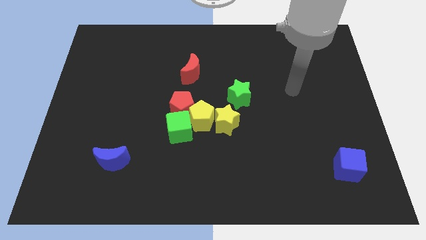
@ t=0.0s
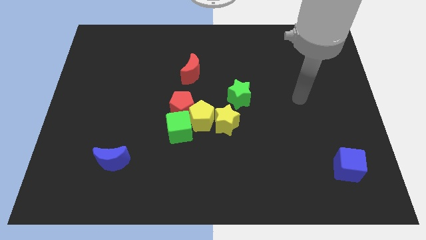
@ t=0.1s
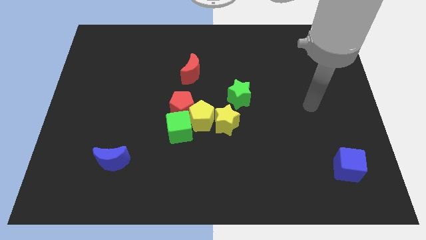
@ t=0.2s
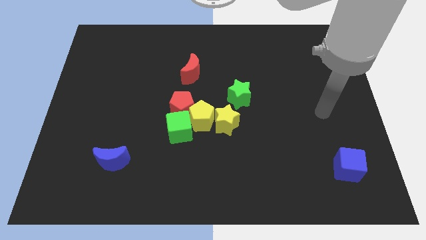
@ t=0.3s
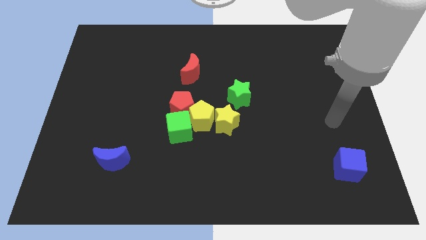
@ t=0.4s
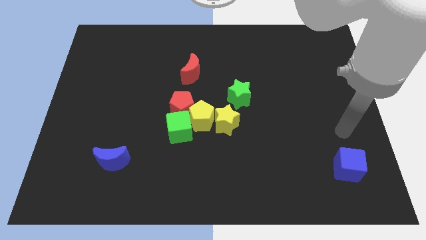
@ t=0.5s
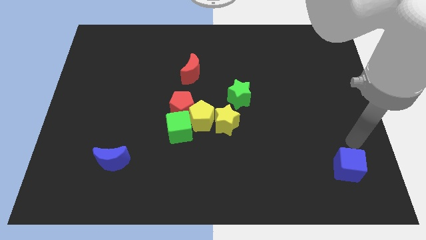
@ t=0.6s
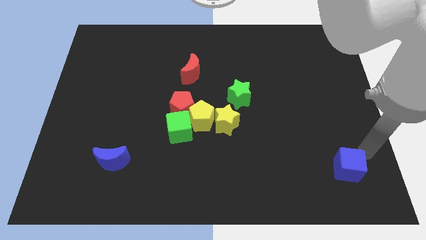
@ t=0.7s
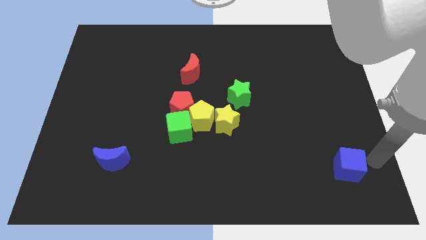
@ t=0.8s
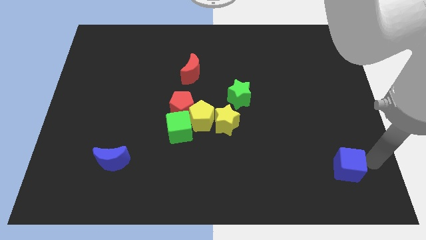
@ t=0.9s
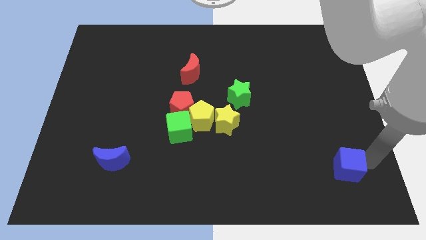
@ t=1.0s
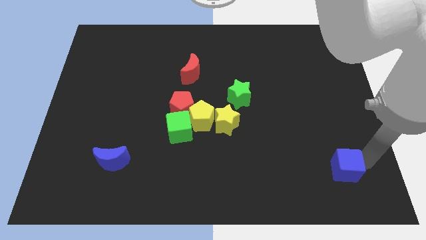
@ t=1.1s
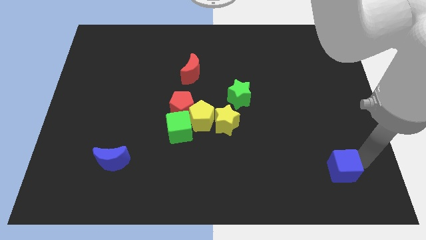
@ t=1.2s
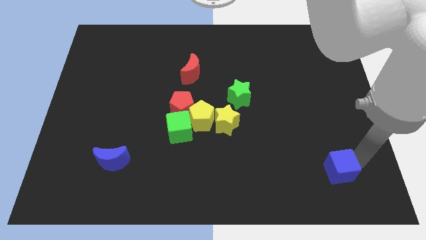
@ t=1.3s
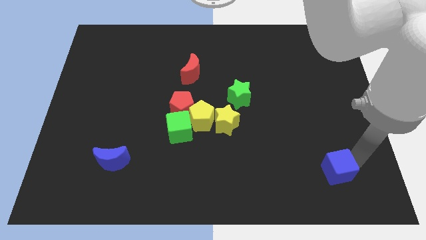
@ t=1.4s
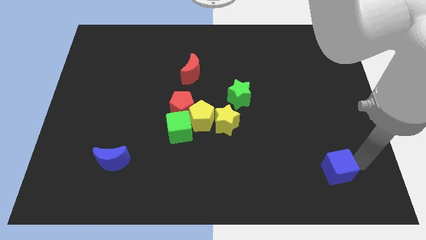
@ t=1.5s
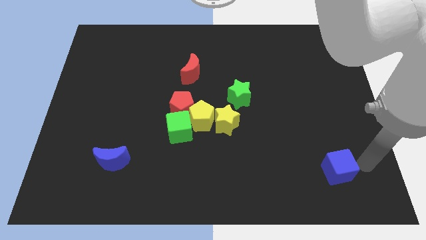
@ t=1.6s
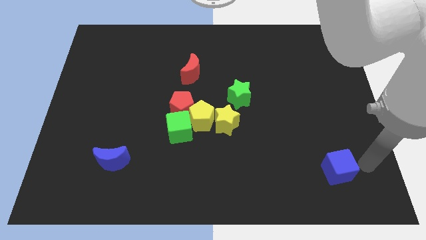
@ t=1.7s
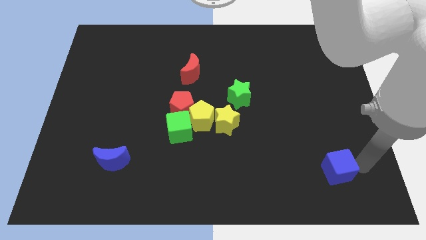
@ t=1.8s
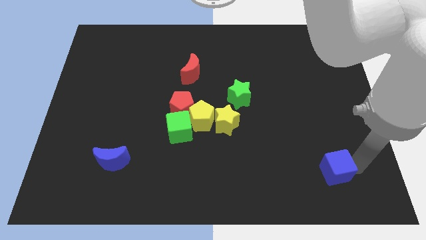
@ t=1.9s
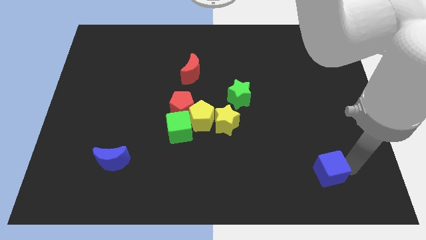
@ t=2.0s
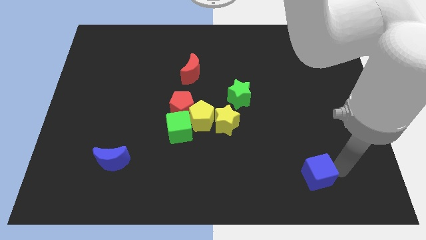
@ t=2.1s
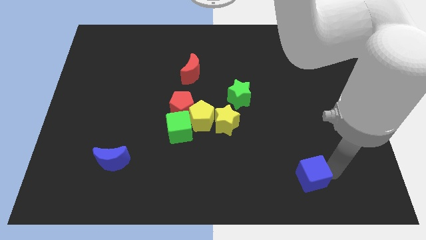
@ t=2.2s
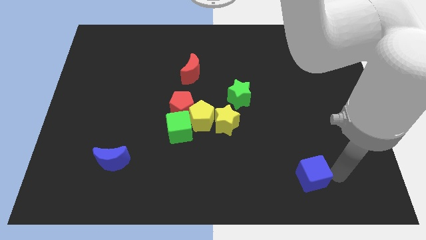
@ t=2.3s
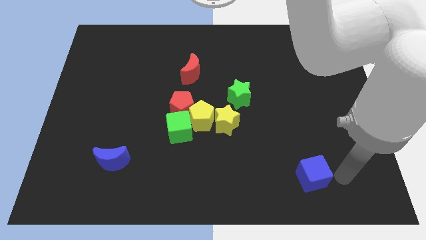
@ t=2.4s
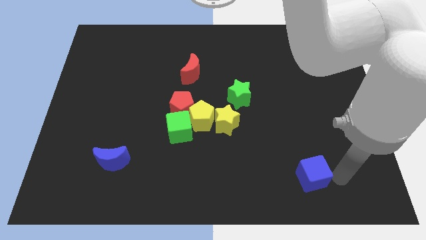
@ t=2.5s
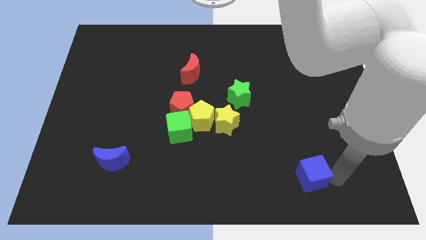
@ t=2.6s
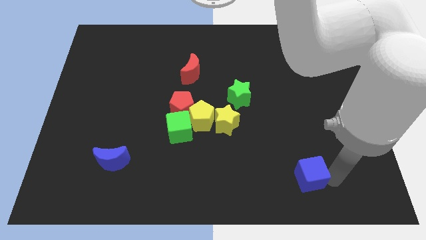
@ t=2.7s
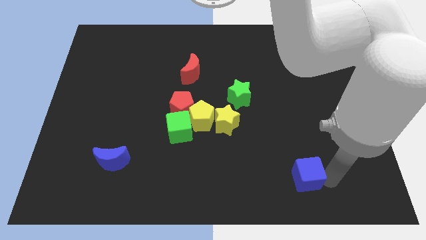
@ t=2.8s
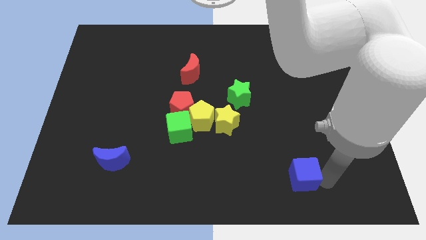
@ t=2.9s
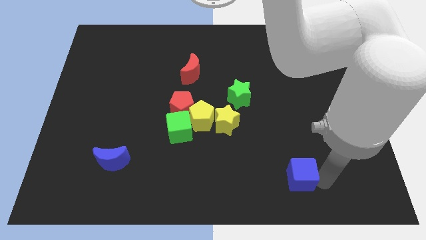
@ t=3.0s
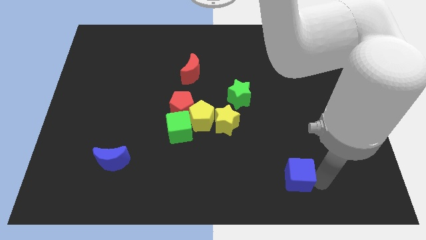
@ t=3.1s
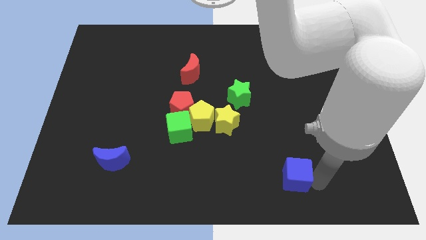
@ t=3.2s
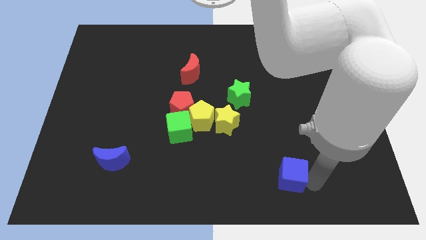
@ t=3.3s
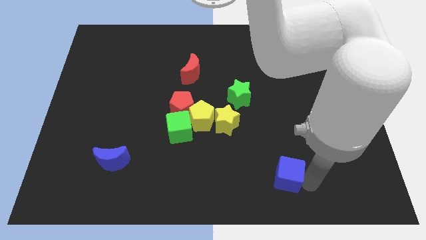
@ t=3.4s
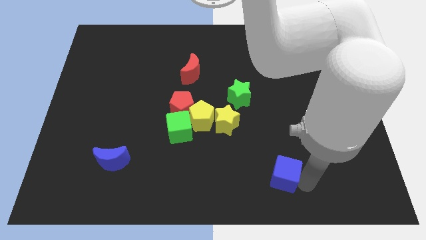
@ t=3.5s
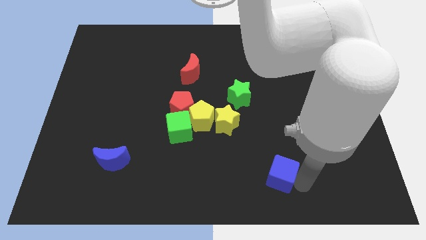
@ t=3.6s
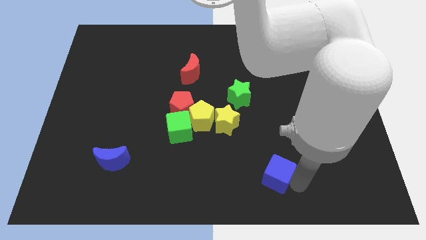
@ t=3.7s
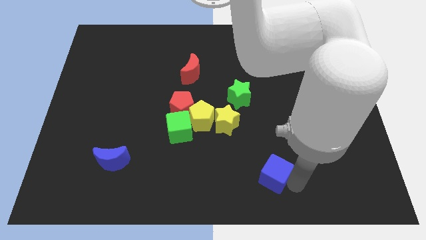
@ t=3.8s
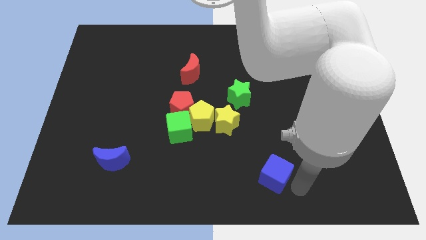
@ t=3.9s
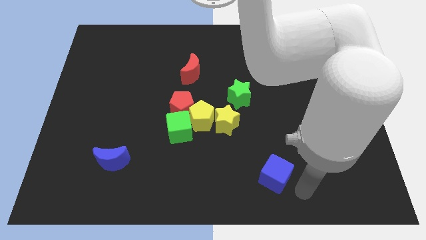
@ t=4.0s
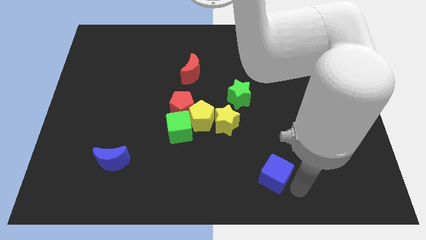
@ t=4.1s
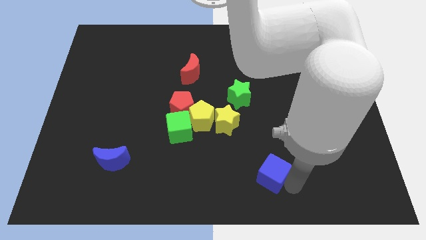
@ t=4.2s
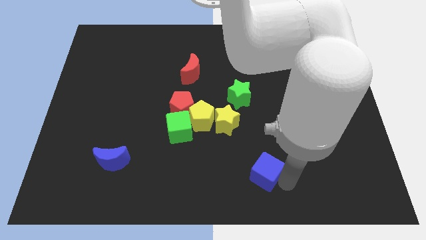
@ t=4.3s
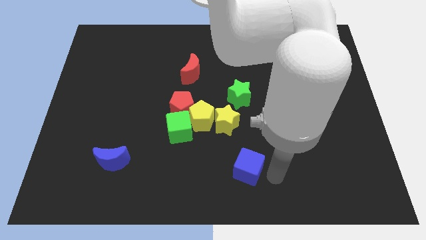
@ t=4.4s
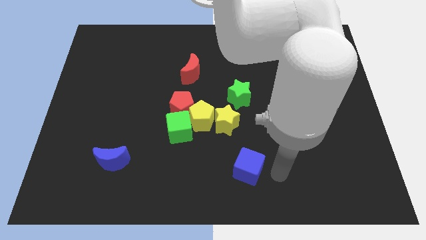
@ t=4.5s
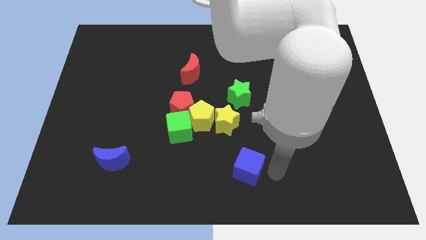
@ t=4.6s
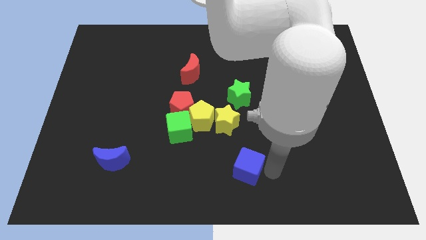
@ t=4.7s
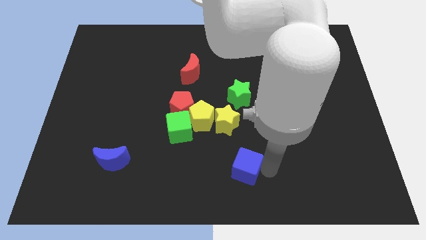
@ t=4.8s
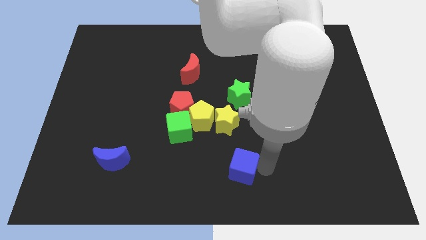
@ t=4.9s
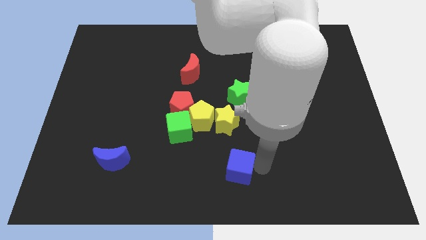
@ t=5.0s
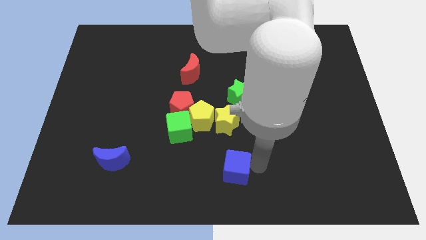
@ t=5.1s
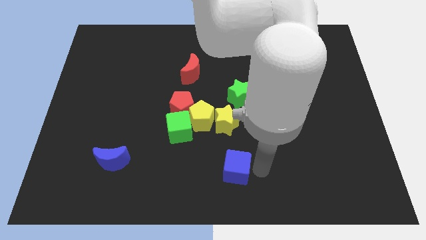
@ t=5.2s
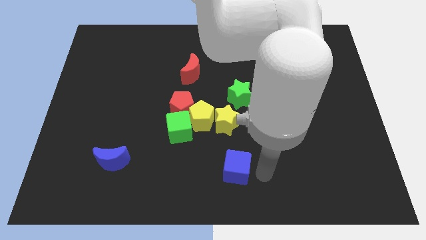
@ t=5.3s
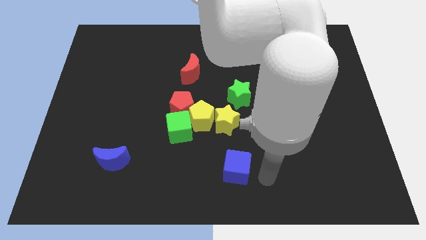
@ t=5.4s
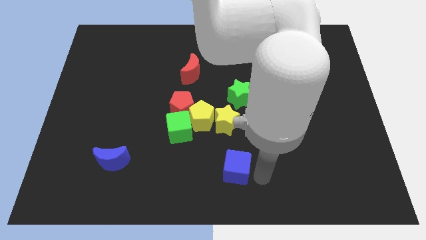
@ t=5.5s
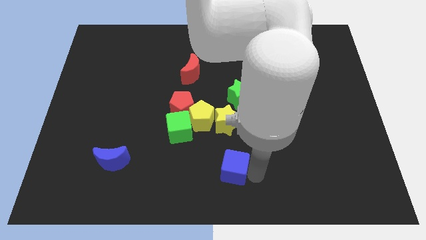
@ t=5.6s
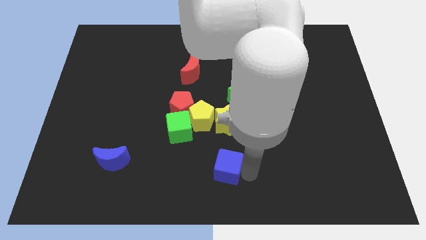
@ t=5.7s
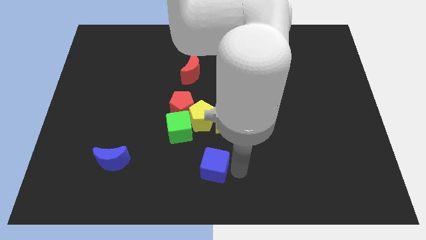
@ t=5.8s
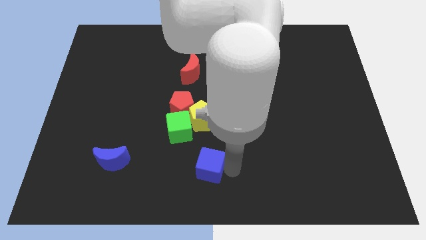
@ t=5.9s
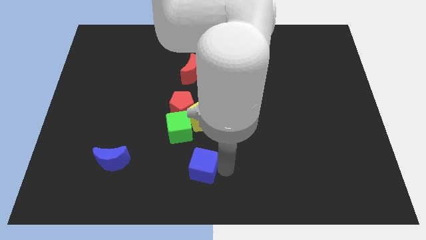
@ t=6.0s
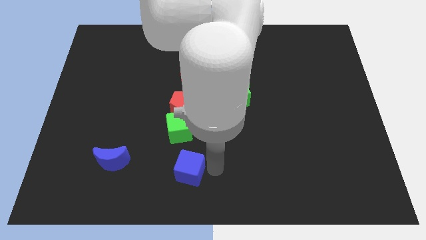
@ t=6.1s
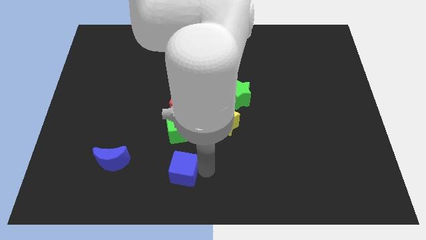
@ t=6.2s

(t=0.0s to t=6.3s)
slide the blue cube right of the blue moon
